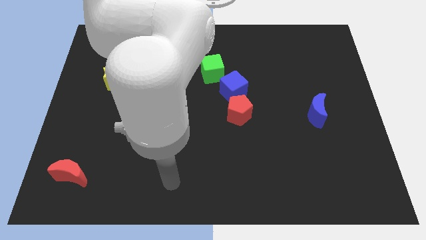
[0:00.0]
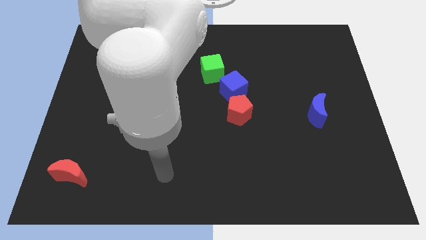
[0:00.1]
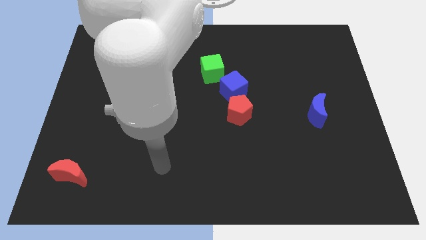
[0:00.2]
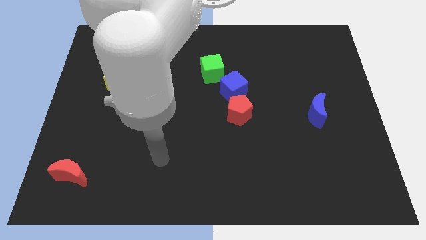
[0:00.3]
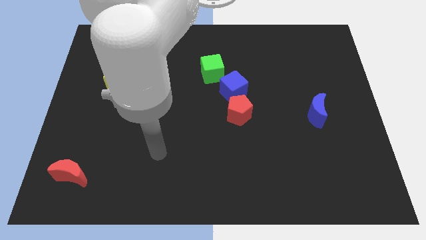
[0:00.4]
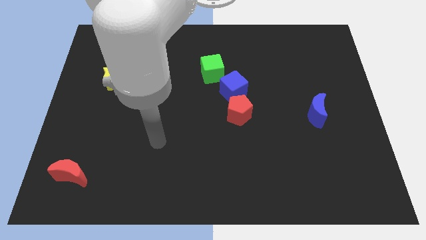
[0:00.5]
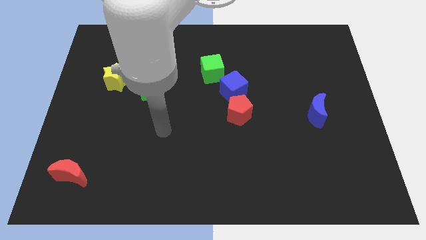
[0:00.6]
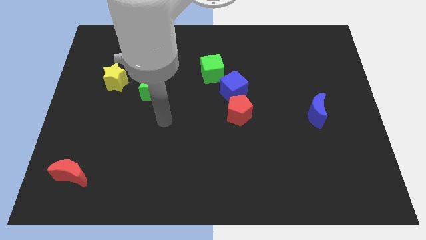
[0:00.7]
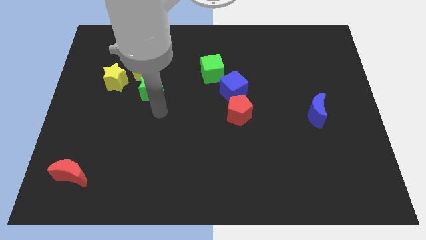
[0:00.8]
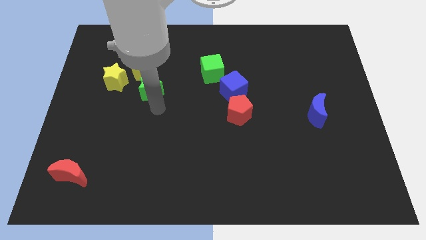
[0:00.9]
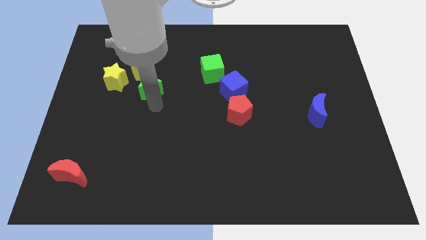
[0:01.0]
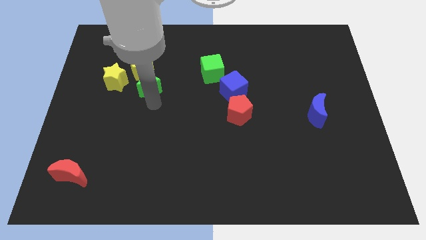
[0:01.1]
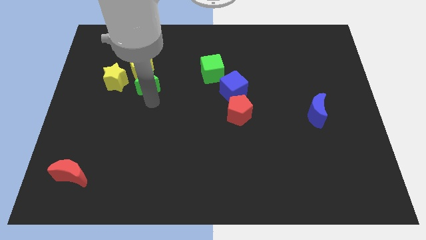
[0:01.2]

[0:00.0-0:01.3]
move the green star to the yellow pentagon

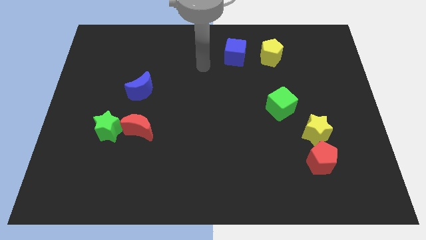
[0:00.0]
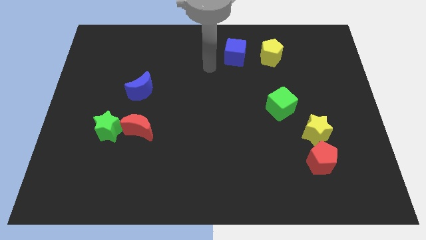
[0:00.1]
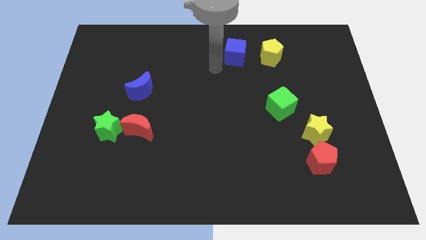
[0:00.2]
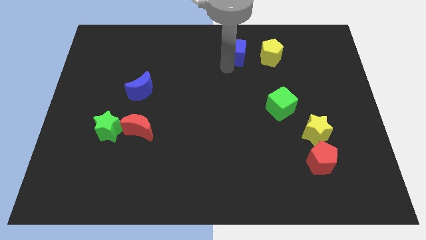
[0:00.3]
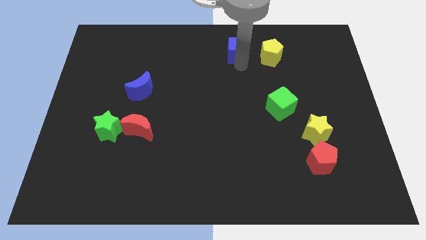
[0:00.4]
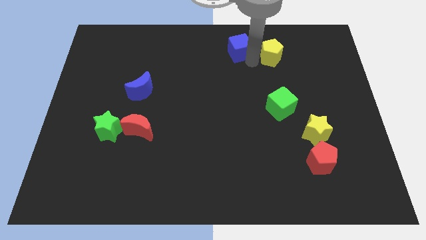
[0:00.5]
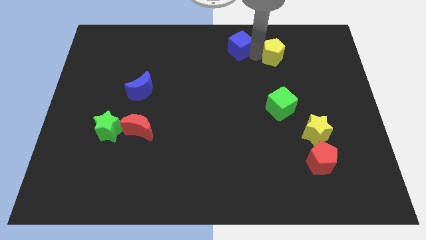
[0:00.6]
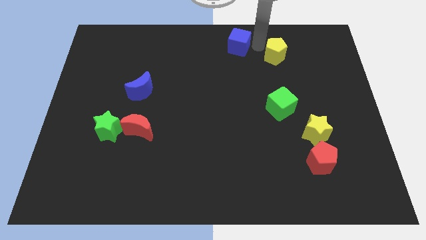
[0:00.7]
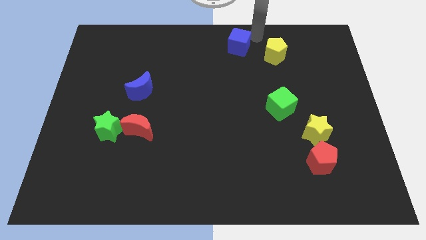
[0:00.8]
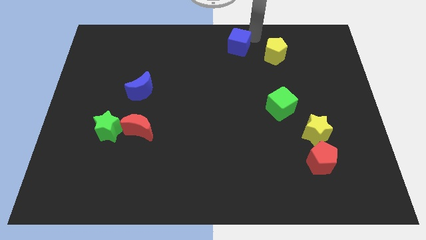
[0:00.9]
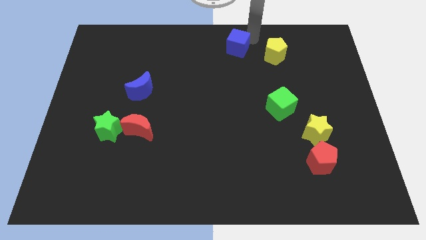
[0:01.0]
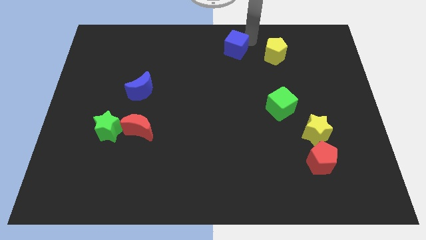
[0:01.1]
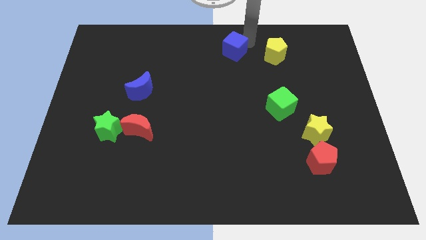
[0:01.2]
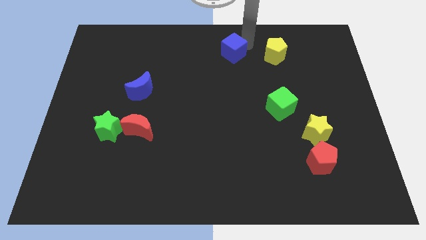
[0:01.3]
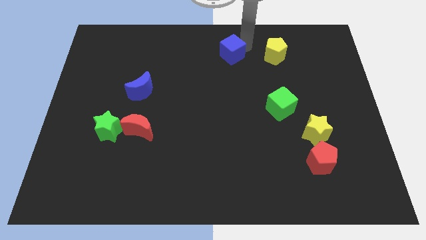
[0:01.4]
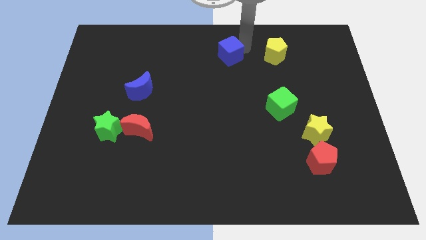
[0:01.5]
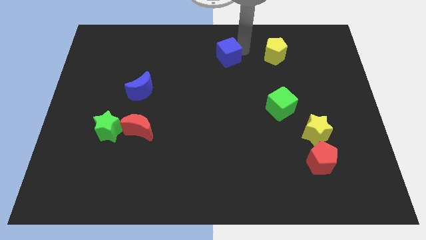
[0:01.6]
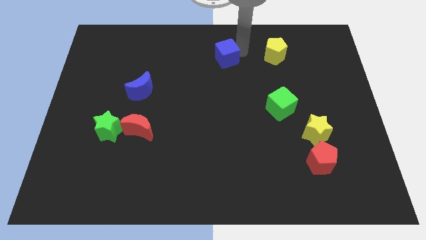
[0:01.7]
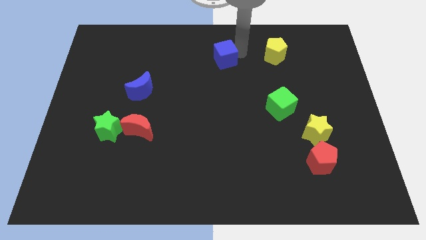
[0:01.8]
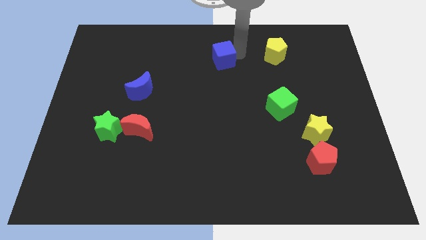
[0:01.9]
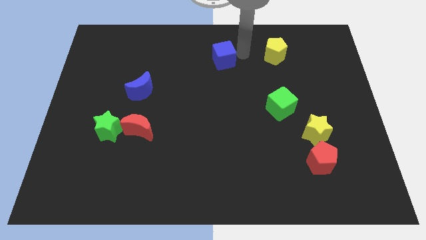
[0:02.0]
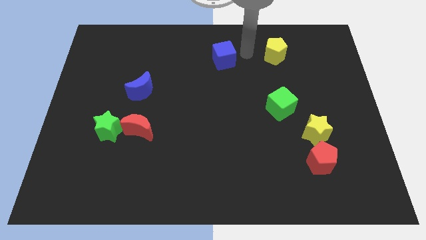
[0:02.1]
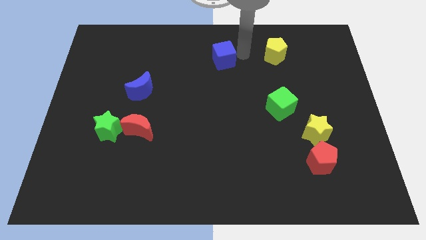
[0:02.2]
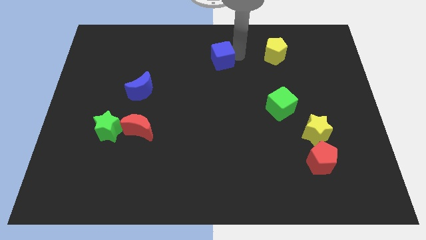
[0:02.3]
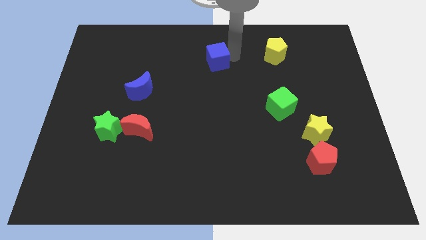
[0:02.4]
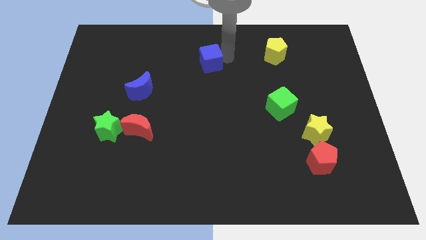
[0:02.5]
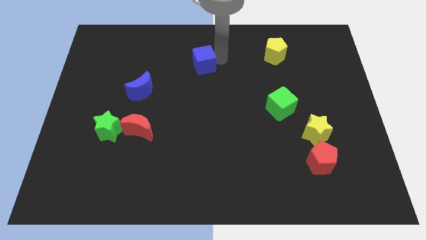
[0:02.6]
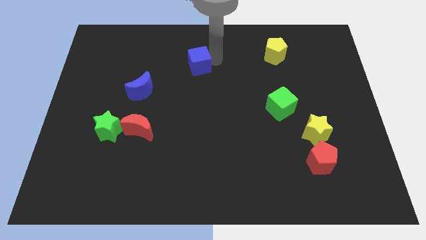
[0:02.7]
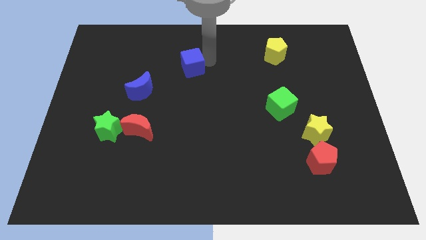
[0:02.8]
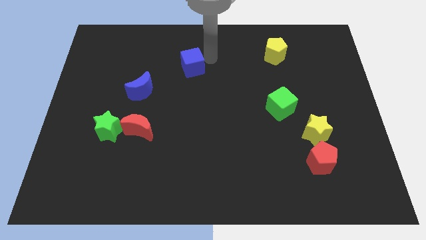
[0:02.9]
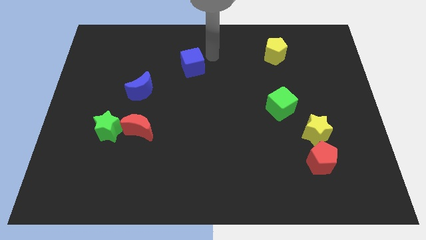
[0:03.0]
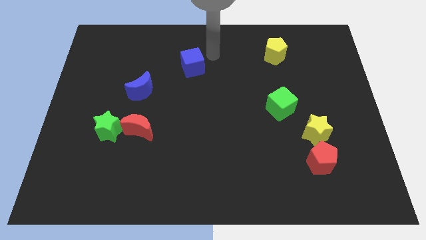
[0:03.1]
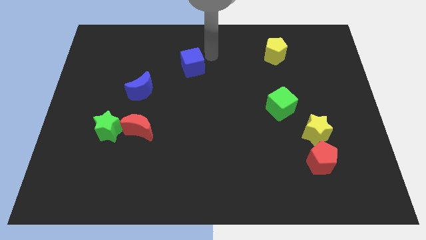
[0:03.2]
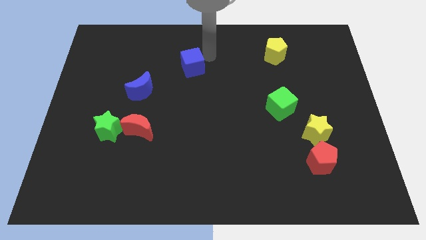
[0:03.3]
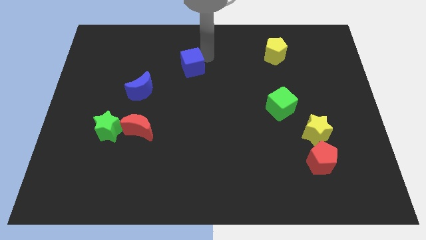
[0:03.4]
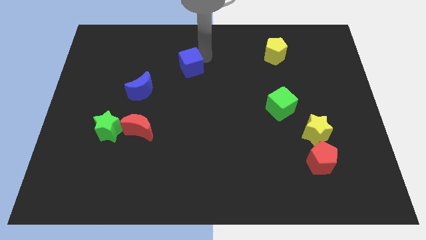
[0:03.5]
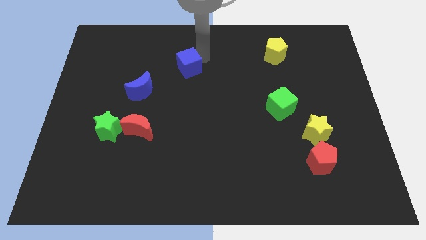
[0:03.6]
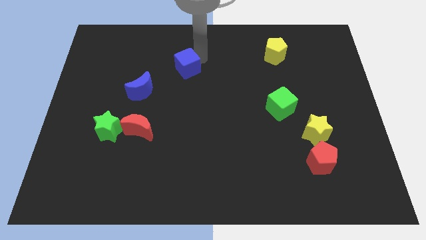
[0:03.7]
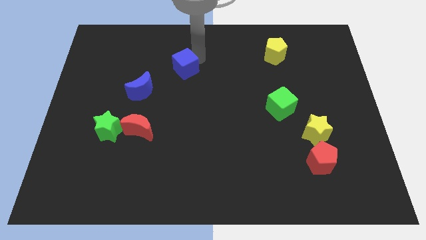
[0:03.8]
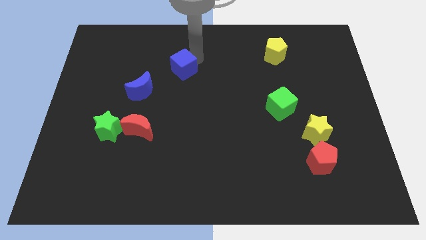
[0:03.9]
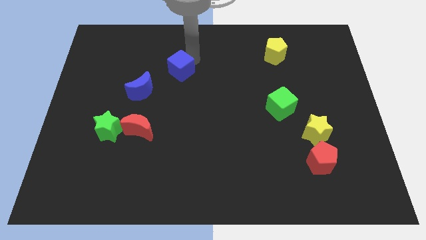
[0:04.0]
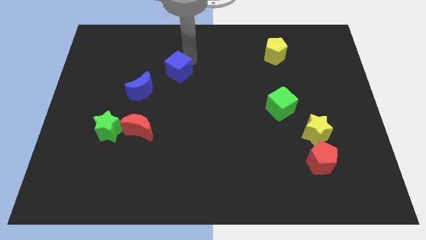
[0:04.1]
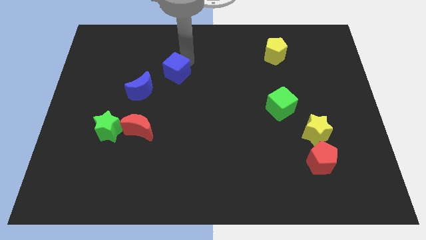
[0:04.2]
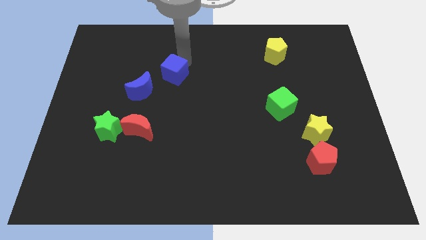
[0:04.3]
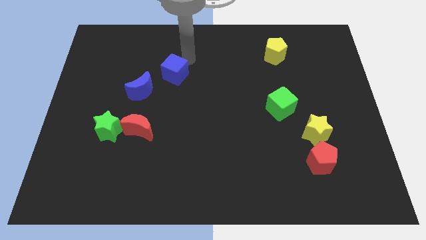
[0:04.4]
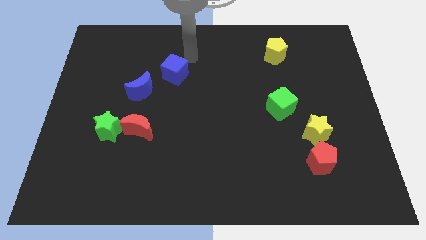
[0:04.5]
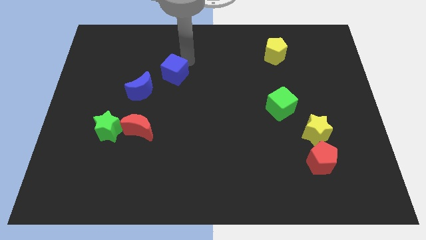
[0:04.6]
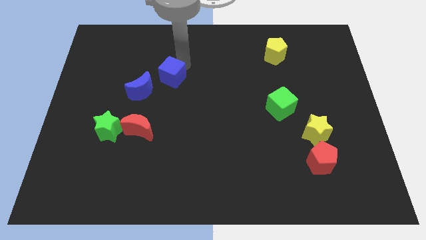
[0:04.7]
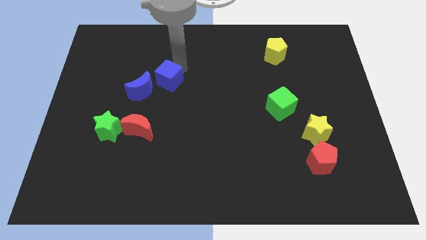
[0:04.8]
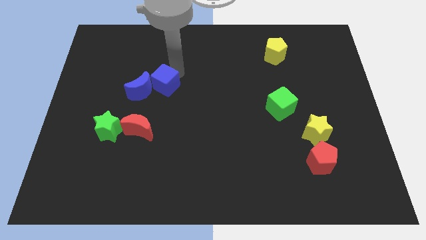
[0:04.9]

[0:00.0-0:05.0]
slide the blue cube to the blue moon

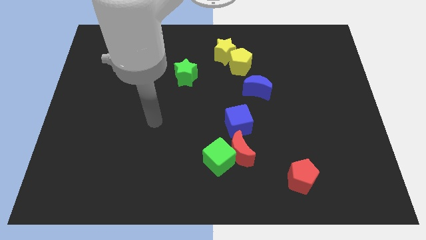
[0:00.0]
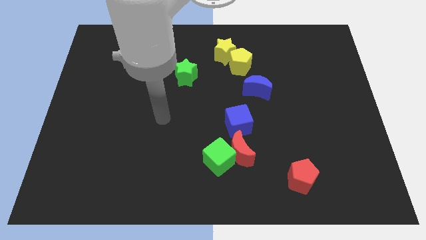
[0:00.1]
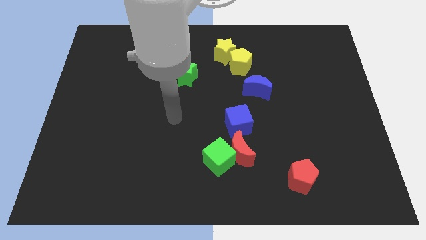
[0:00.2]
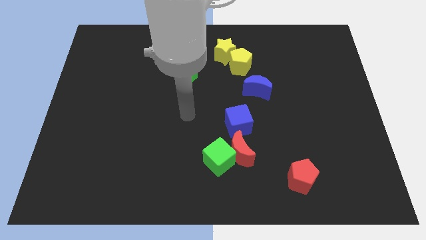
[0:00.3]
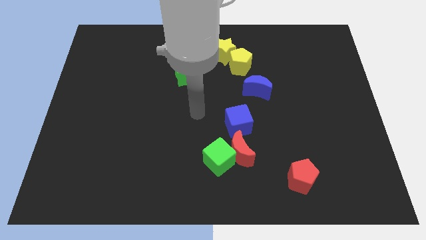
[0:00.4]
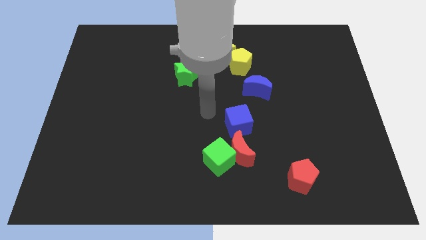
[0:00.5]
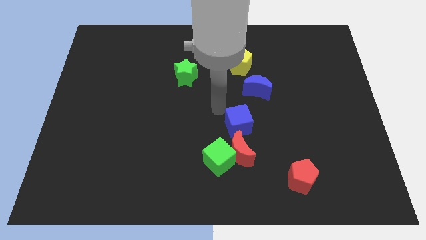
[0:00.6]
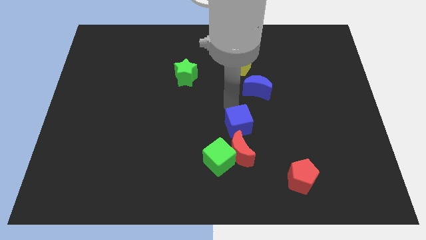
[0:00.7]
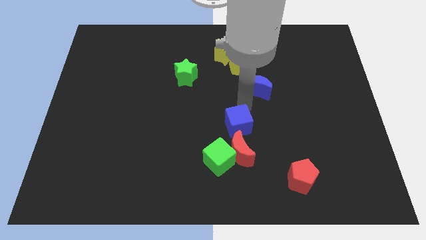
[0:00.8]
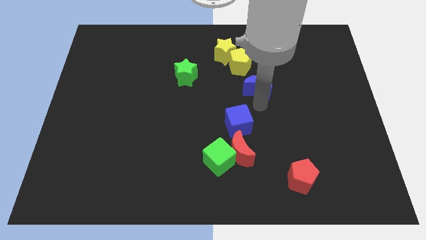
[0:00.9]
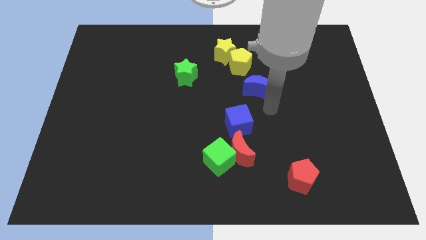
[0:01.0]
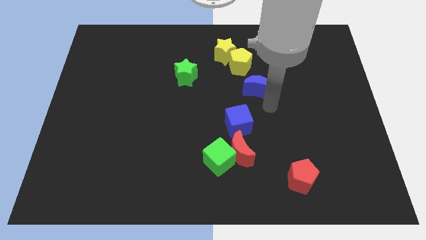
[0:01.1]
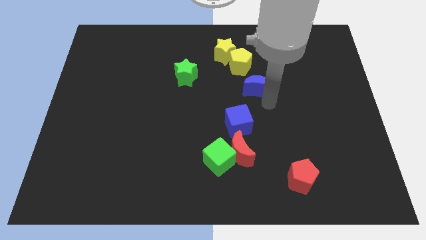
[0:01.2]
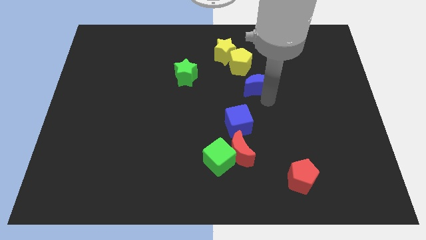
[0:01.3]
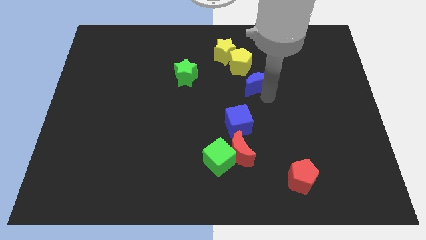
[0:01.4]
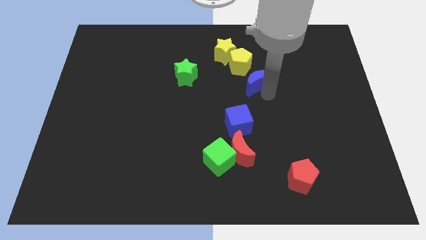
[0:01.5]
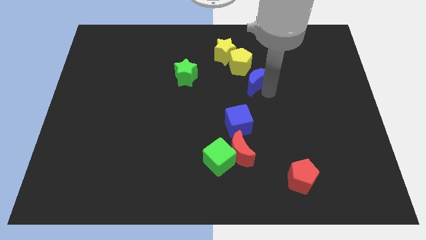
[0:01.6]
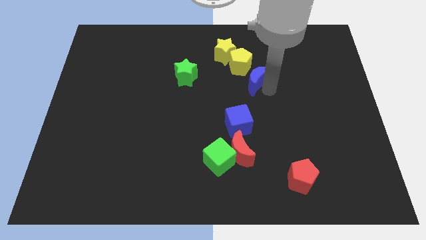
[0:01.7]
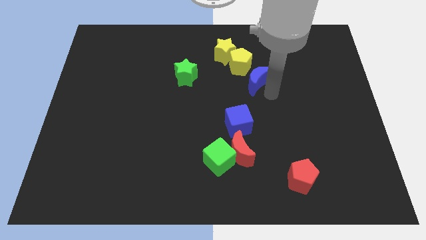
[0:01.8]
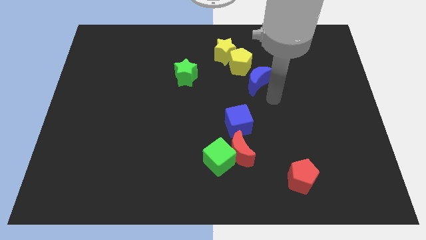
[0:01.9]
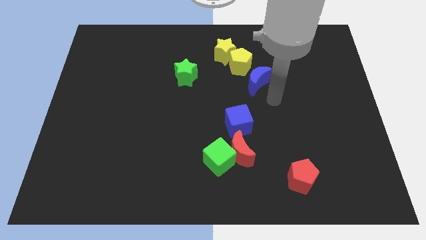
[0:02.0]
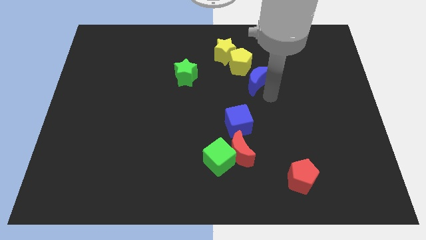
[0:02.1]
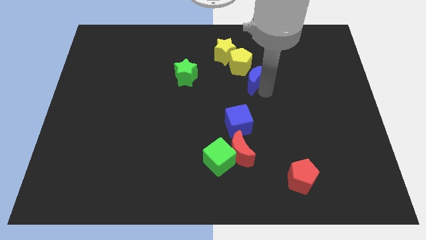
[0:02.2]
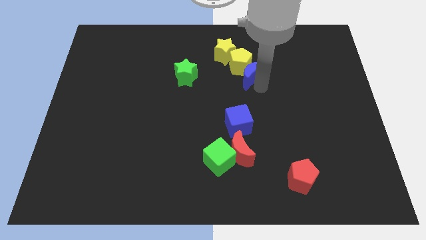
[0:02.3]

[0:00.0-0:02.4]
put the blue moon to the yellow pentagon
